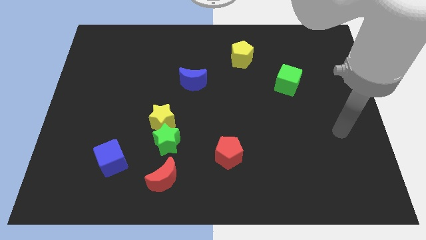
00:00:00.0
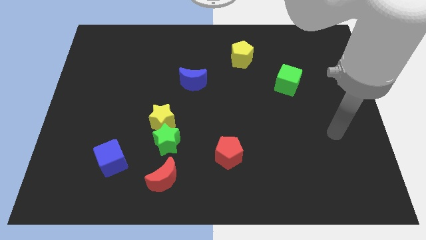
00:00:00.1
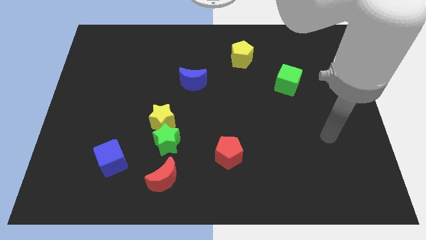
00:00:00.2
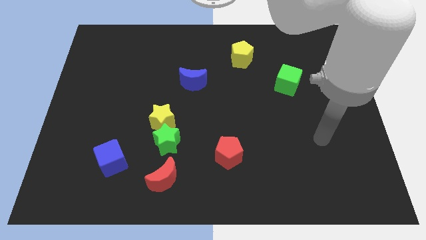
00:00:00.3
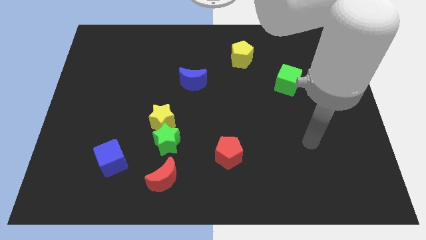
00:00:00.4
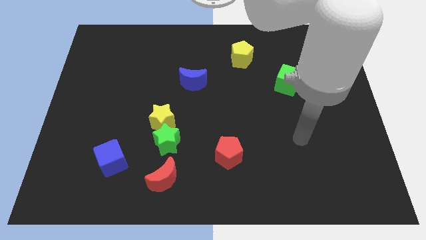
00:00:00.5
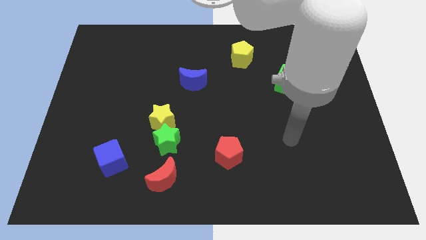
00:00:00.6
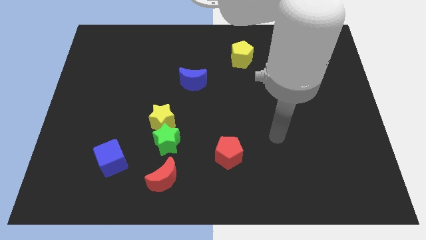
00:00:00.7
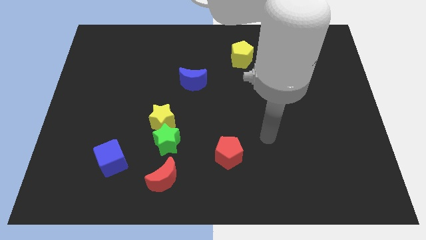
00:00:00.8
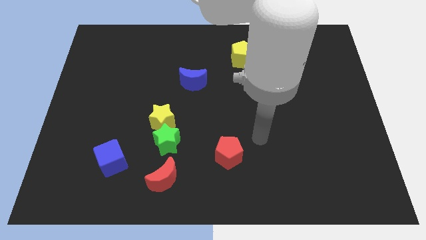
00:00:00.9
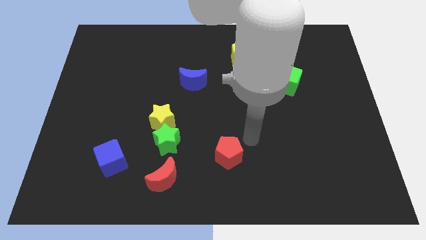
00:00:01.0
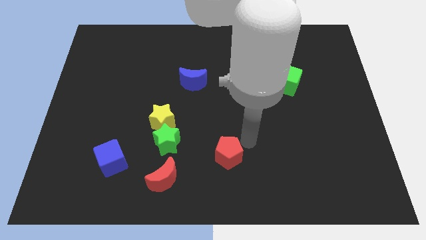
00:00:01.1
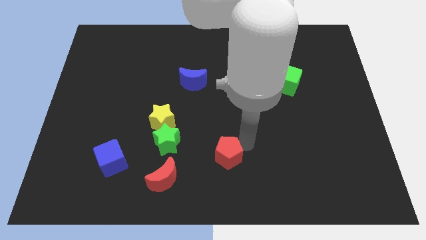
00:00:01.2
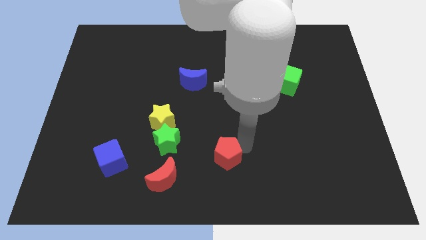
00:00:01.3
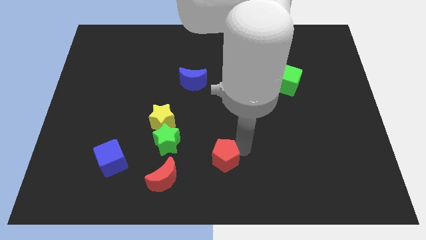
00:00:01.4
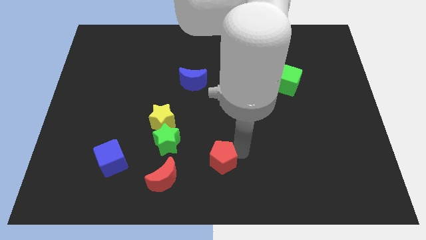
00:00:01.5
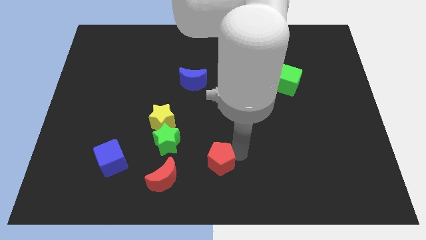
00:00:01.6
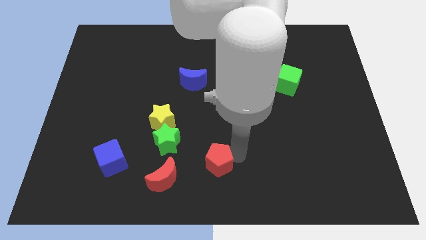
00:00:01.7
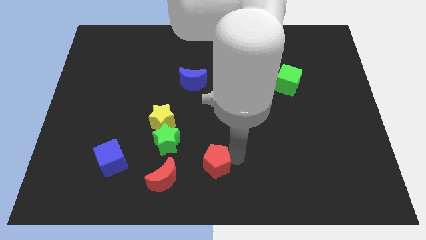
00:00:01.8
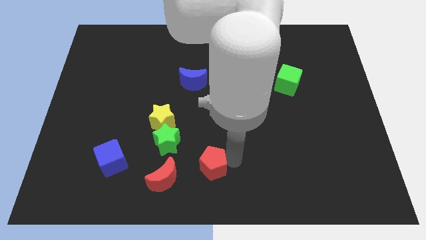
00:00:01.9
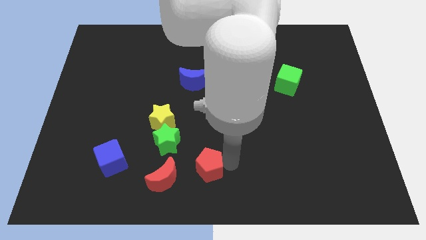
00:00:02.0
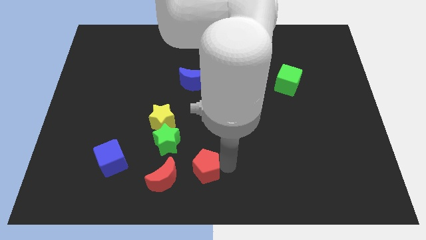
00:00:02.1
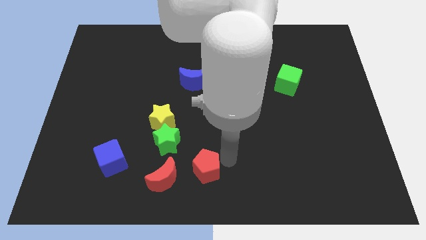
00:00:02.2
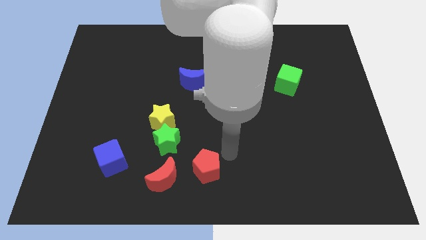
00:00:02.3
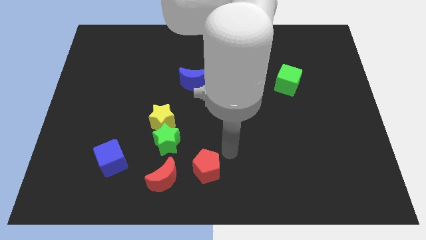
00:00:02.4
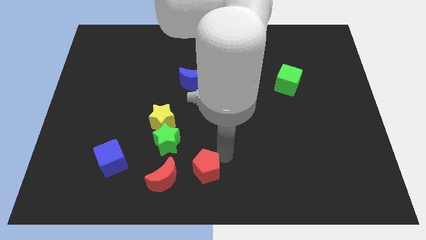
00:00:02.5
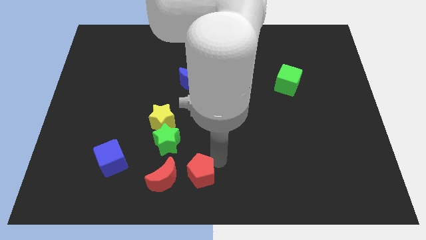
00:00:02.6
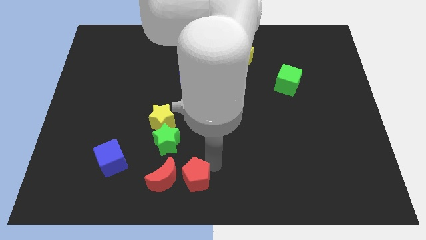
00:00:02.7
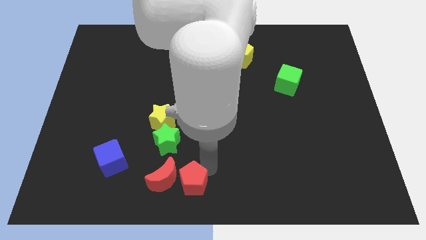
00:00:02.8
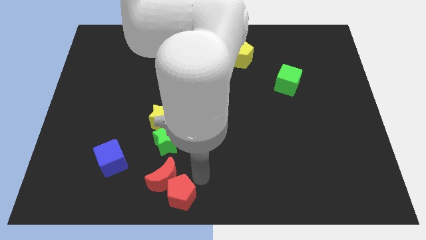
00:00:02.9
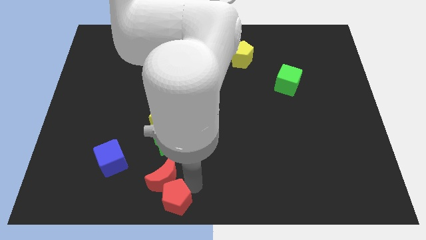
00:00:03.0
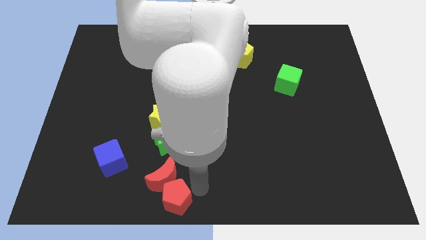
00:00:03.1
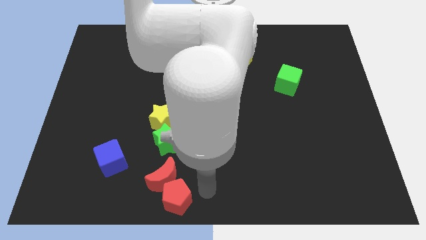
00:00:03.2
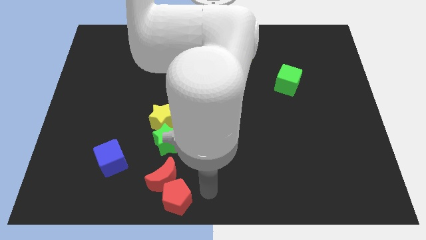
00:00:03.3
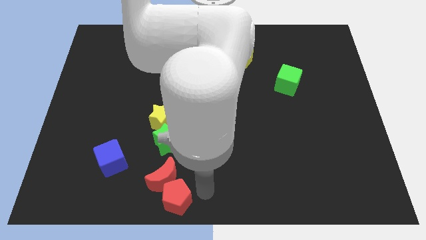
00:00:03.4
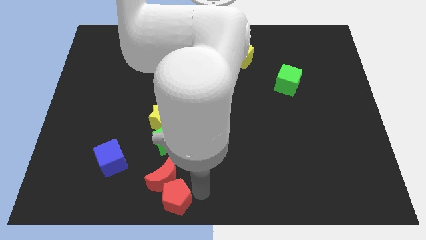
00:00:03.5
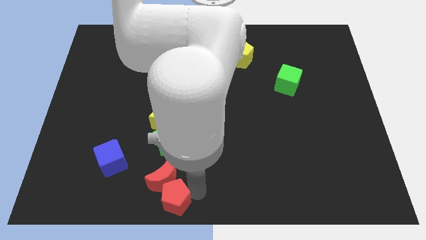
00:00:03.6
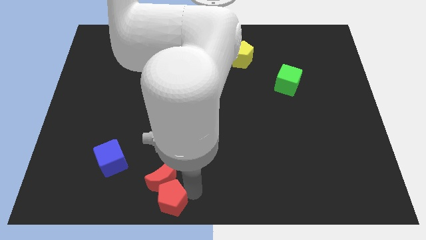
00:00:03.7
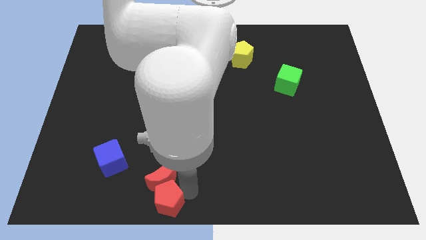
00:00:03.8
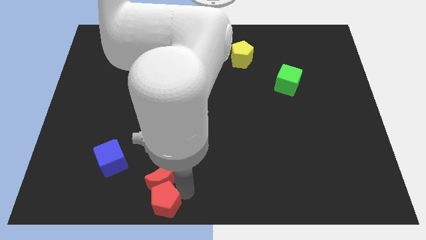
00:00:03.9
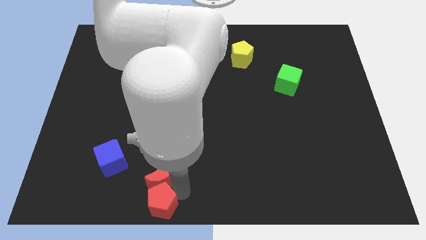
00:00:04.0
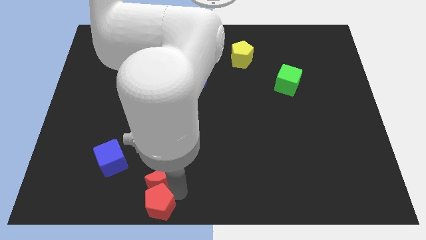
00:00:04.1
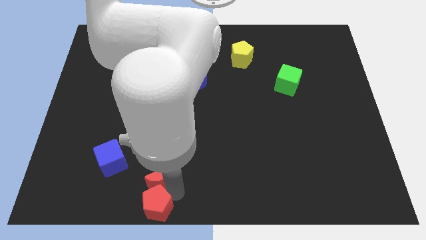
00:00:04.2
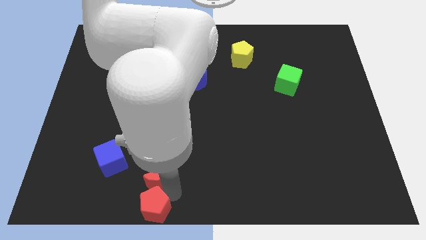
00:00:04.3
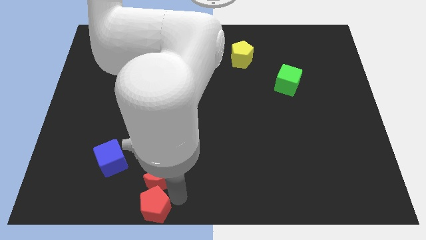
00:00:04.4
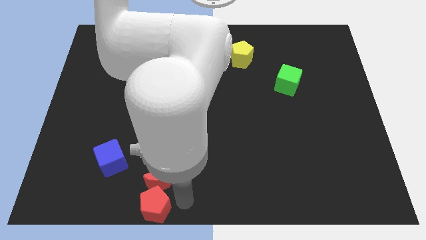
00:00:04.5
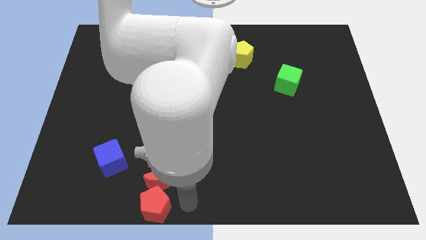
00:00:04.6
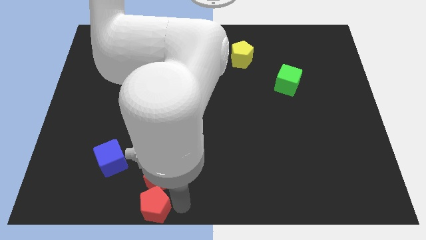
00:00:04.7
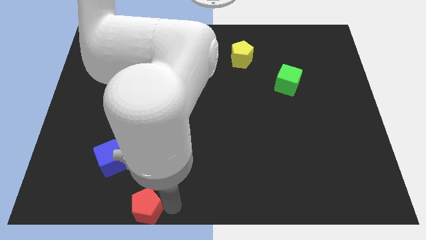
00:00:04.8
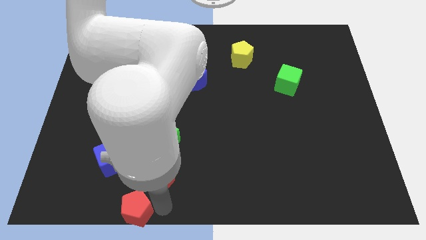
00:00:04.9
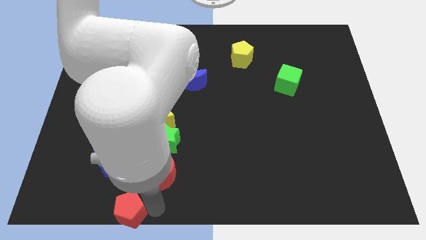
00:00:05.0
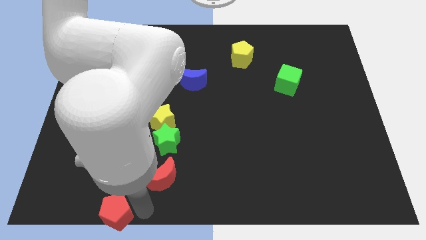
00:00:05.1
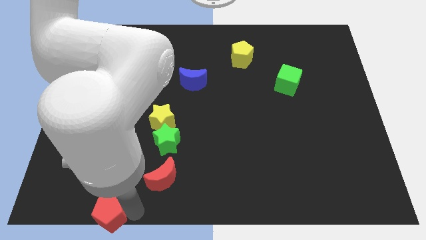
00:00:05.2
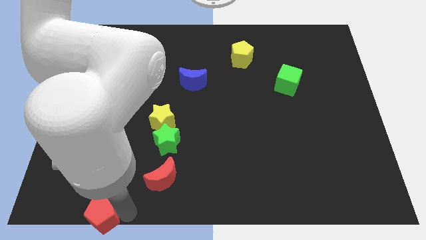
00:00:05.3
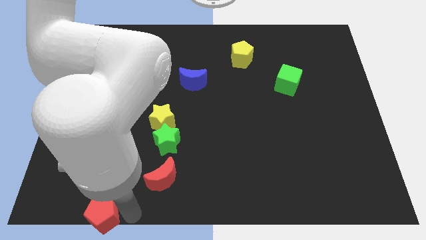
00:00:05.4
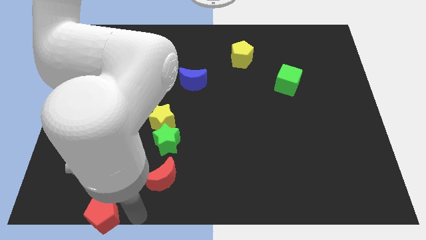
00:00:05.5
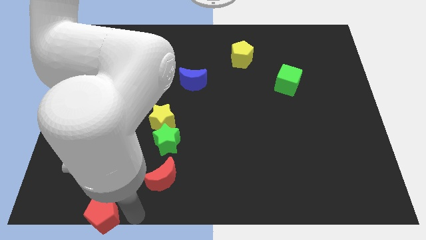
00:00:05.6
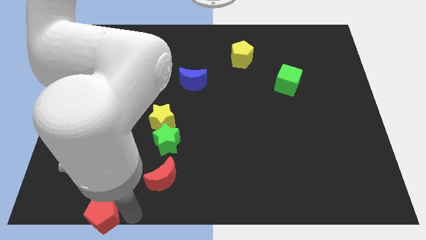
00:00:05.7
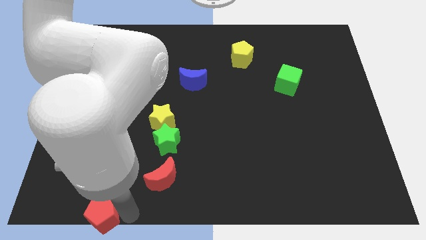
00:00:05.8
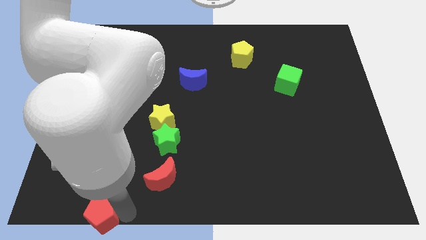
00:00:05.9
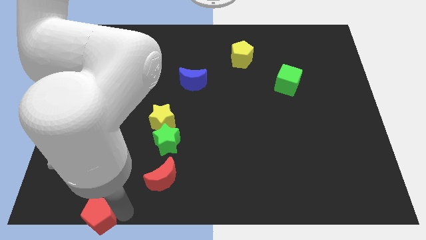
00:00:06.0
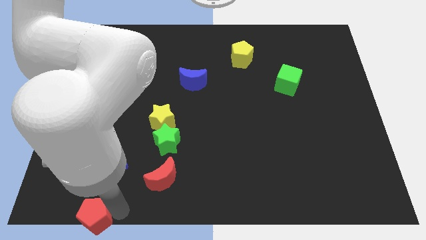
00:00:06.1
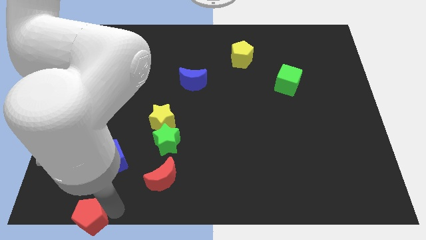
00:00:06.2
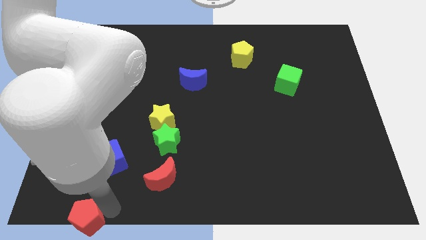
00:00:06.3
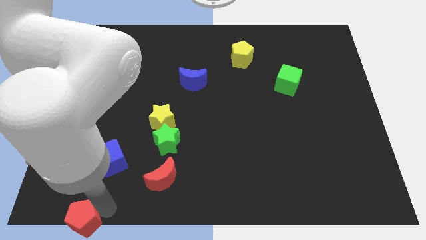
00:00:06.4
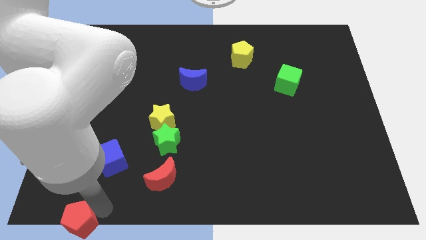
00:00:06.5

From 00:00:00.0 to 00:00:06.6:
move the red pentagon to the bottom left
